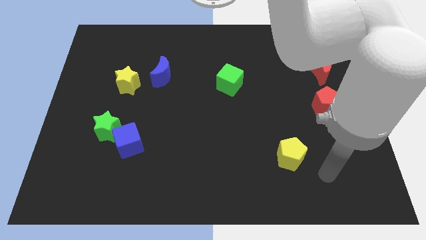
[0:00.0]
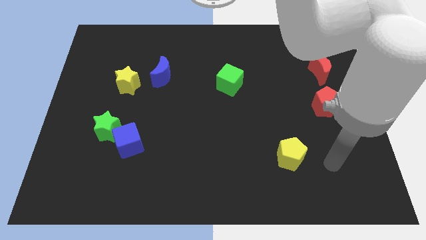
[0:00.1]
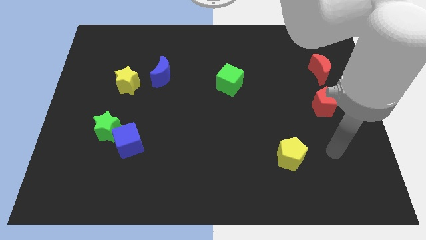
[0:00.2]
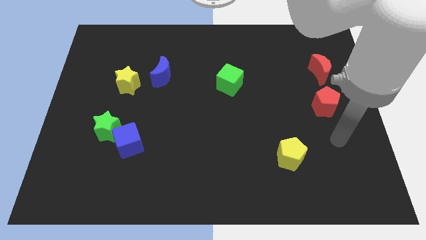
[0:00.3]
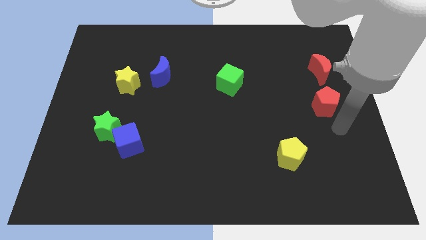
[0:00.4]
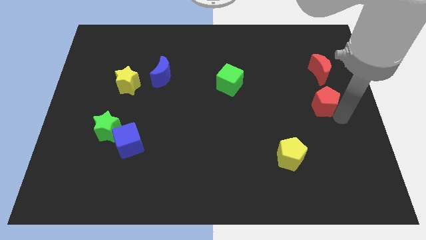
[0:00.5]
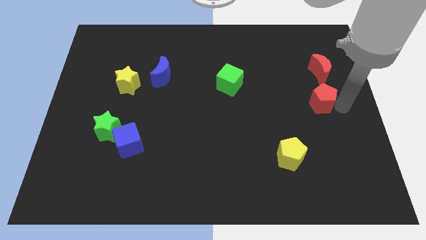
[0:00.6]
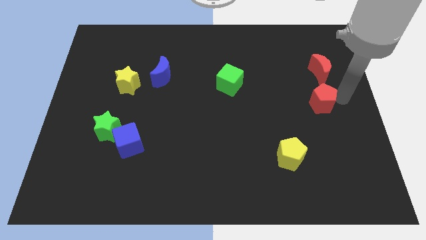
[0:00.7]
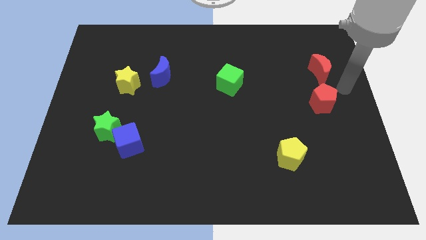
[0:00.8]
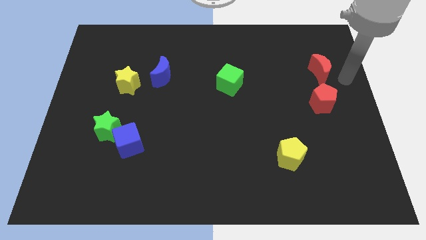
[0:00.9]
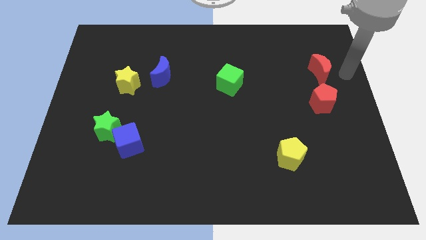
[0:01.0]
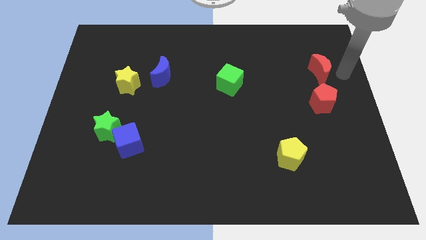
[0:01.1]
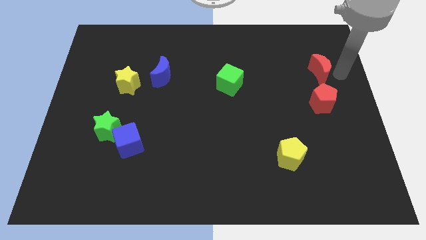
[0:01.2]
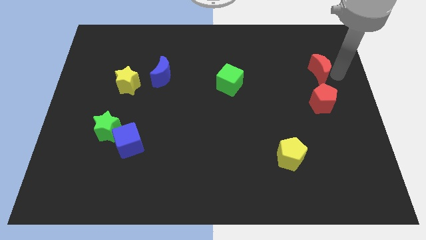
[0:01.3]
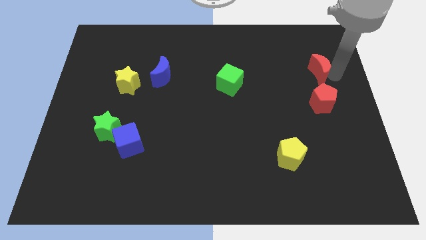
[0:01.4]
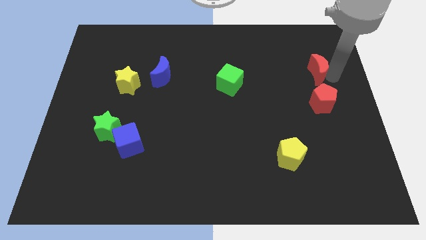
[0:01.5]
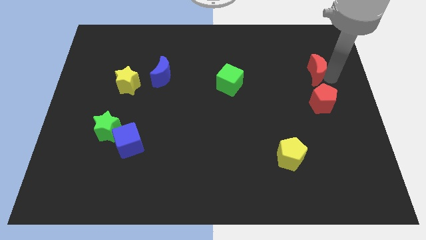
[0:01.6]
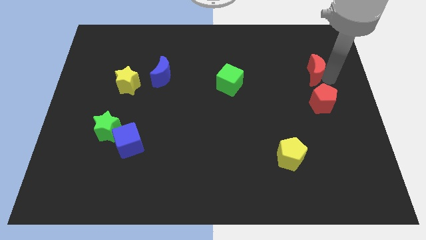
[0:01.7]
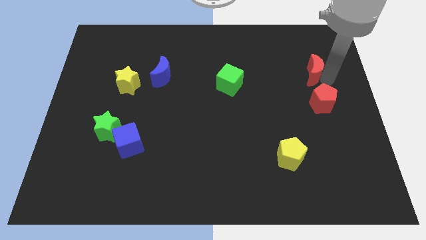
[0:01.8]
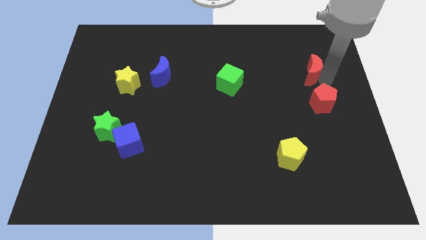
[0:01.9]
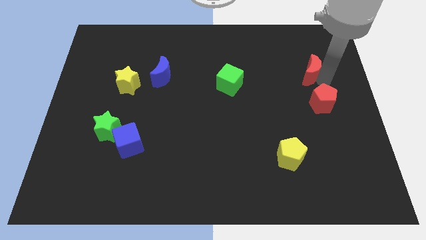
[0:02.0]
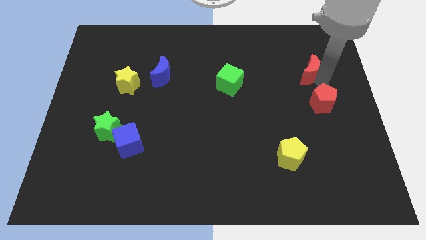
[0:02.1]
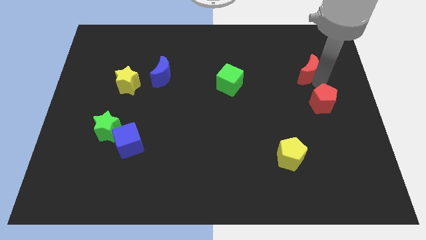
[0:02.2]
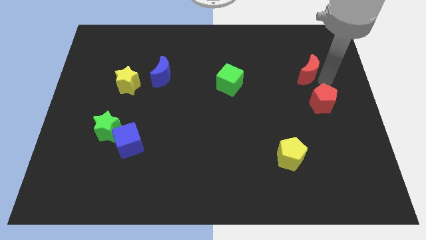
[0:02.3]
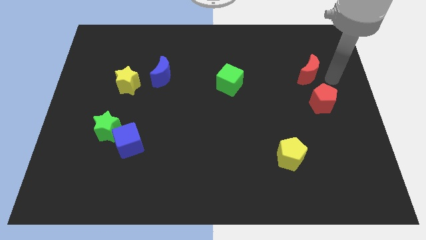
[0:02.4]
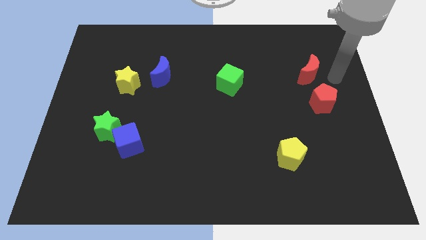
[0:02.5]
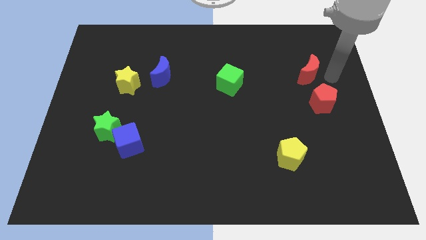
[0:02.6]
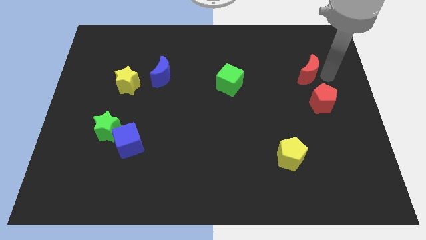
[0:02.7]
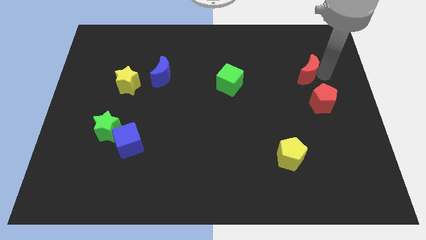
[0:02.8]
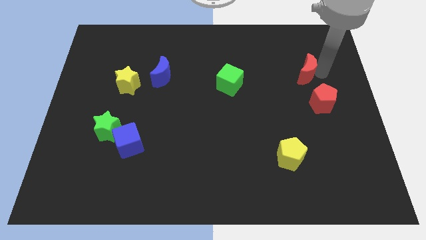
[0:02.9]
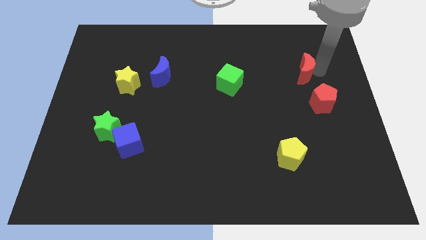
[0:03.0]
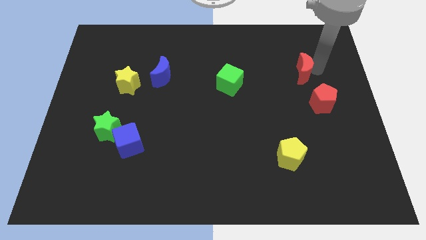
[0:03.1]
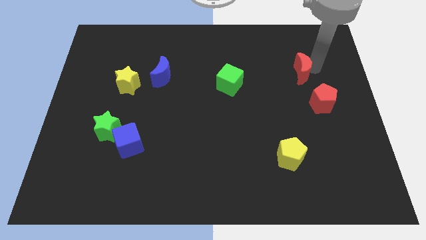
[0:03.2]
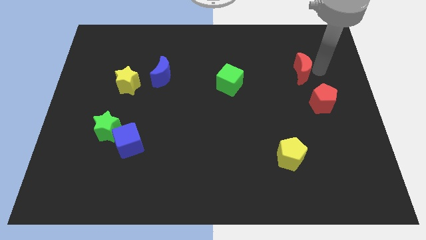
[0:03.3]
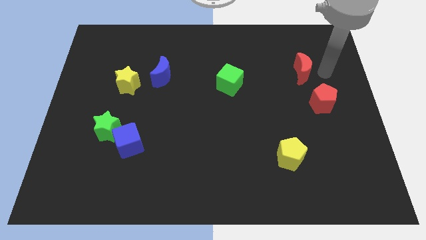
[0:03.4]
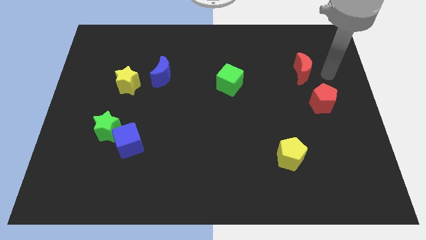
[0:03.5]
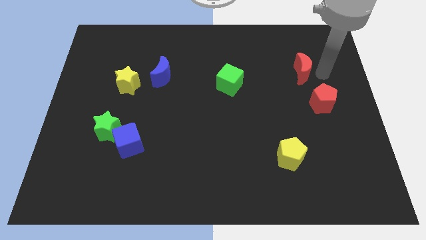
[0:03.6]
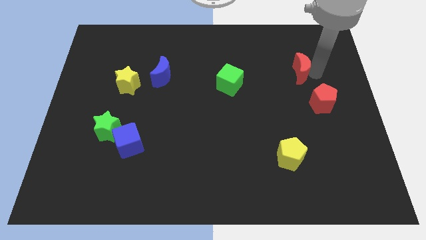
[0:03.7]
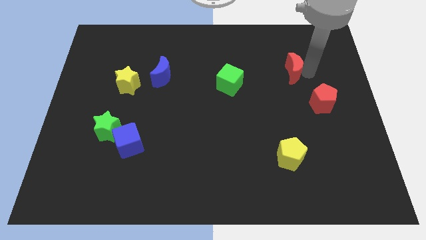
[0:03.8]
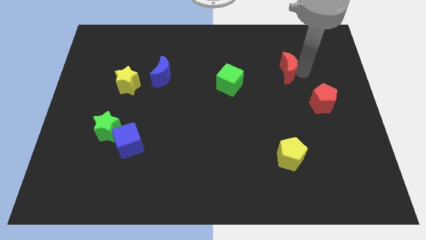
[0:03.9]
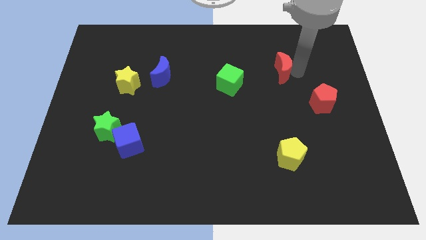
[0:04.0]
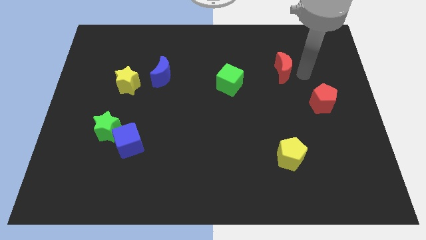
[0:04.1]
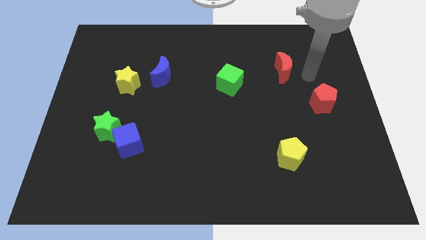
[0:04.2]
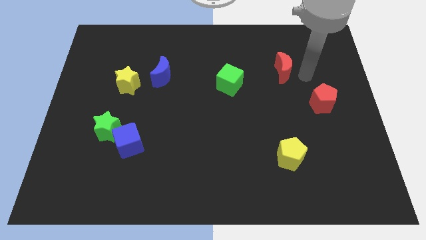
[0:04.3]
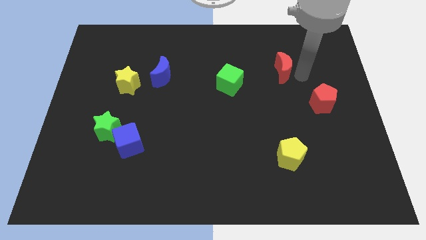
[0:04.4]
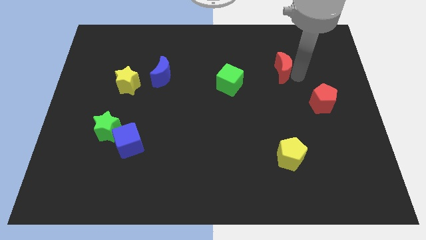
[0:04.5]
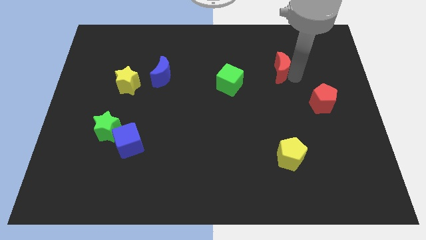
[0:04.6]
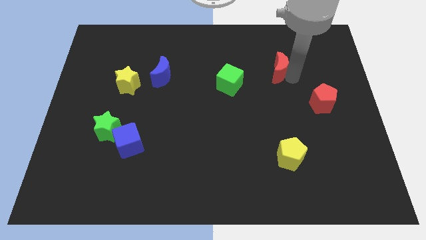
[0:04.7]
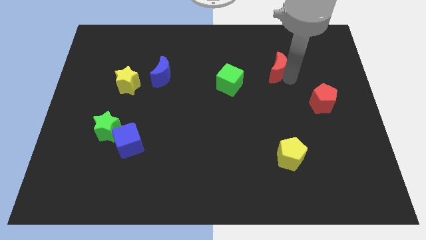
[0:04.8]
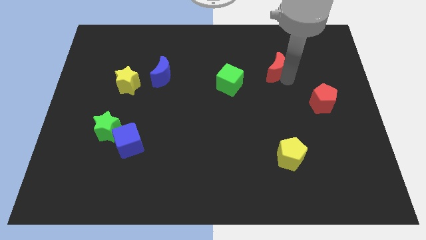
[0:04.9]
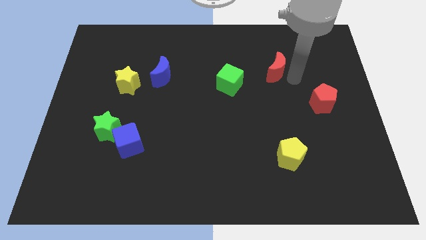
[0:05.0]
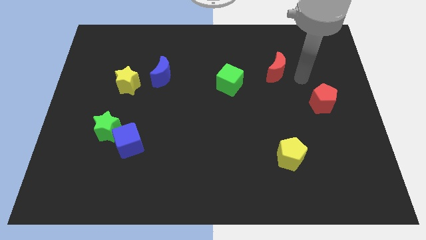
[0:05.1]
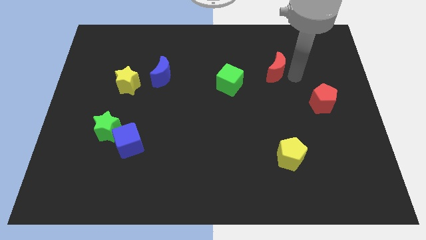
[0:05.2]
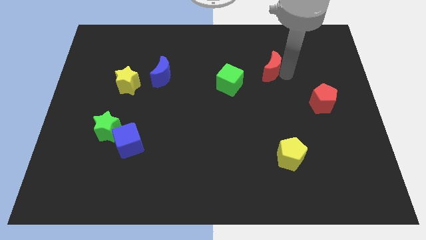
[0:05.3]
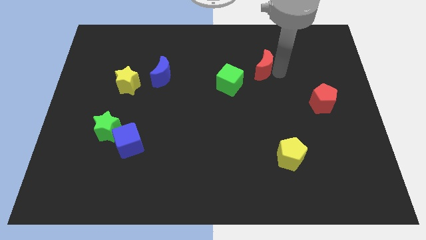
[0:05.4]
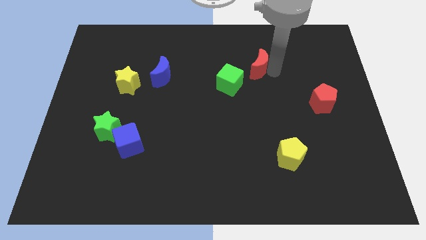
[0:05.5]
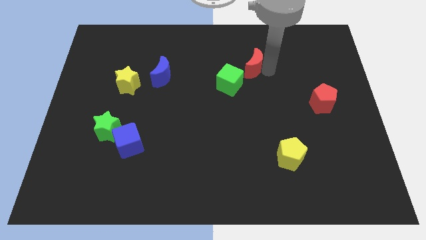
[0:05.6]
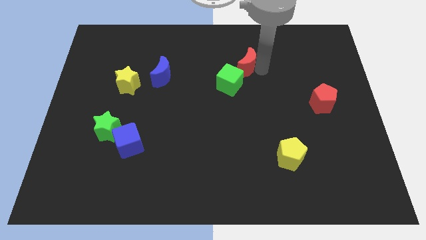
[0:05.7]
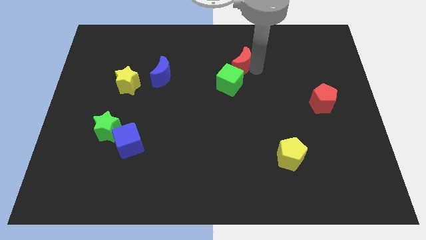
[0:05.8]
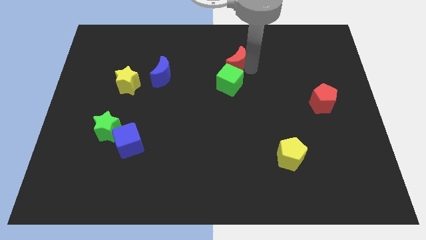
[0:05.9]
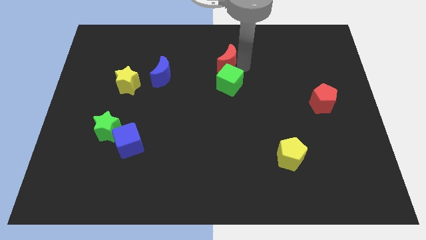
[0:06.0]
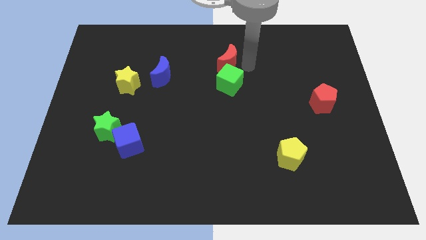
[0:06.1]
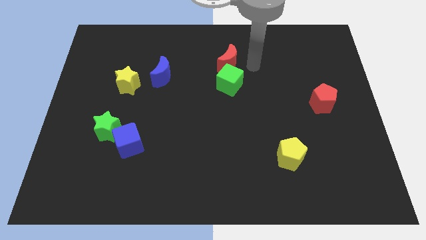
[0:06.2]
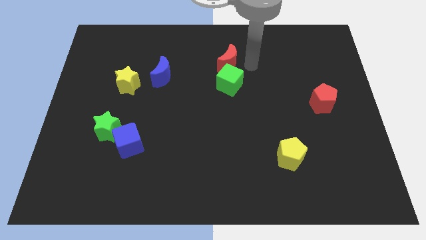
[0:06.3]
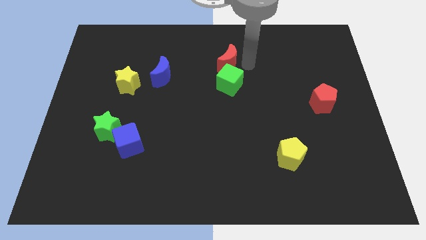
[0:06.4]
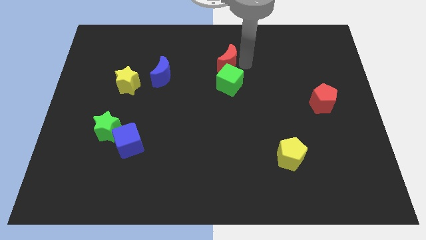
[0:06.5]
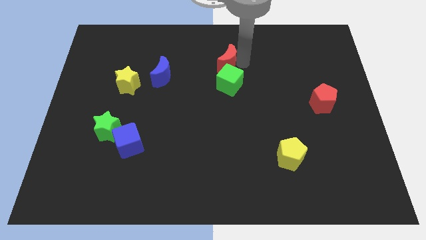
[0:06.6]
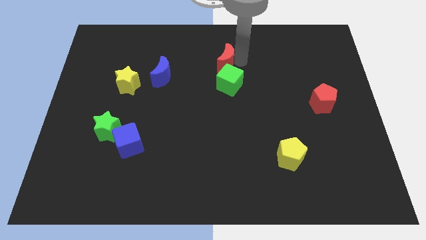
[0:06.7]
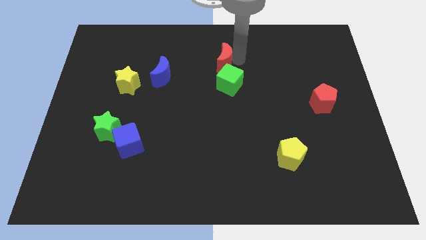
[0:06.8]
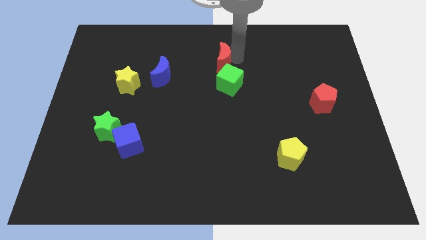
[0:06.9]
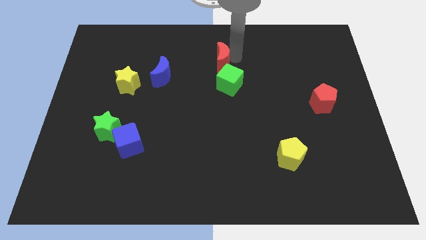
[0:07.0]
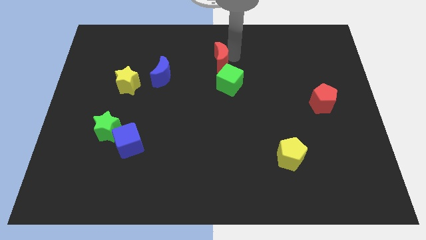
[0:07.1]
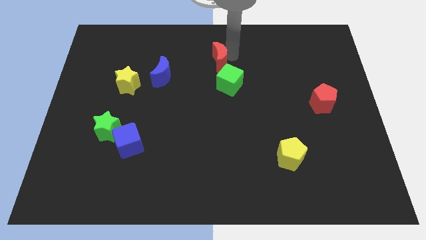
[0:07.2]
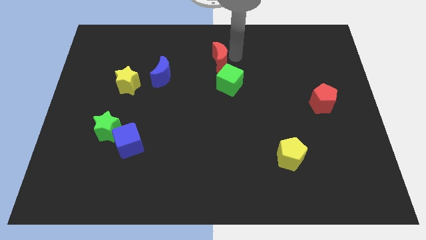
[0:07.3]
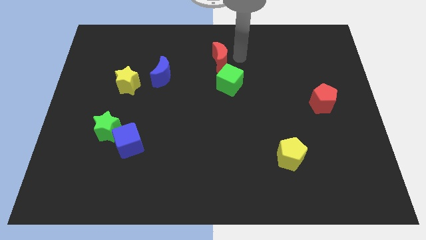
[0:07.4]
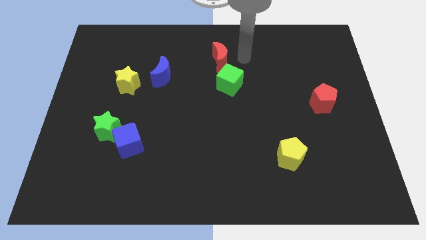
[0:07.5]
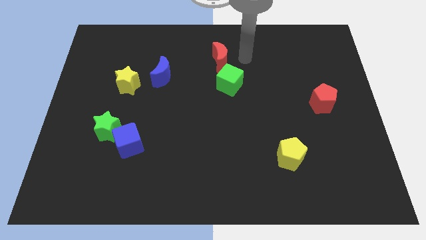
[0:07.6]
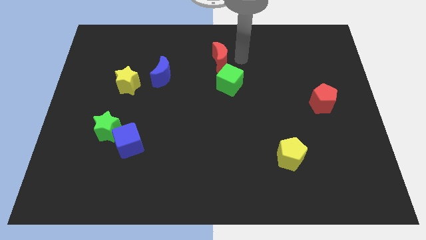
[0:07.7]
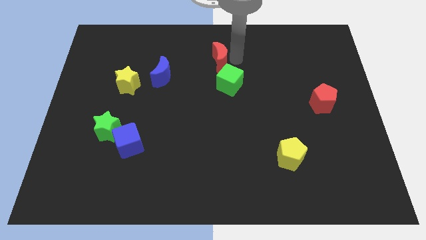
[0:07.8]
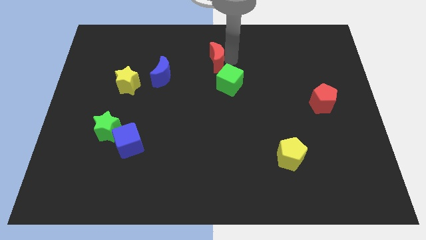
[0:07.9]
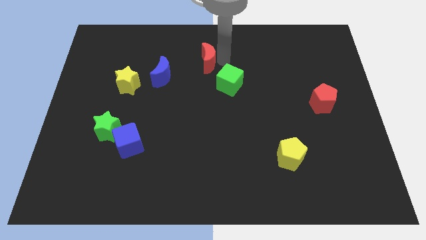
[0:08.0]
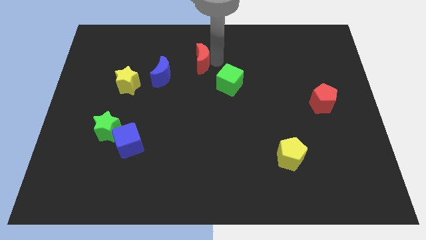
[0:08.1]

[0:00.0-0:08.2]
slide the red moon to the top right of the blue moon

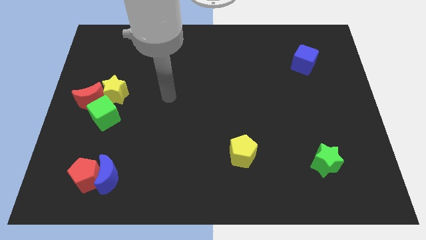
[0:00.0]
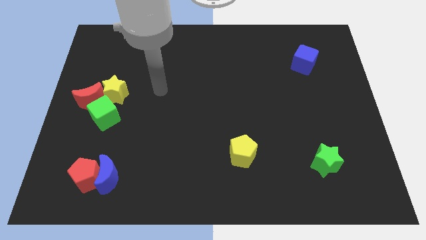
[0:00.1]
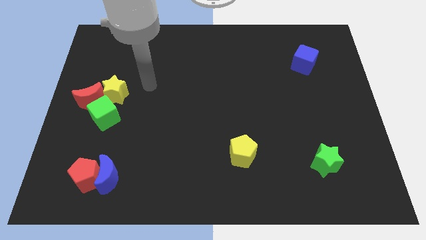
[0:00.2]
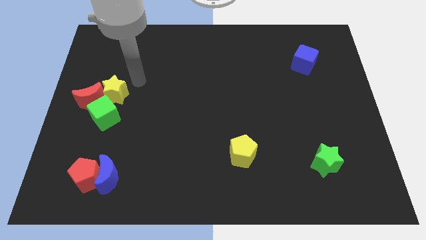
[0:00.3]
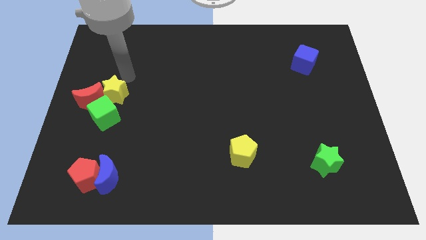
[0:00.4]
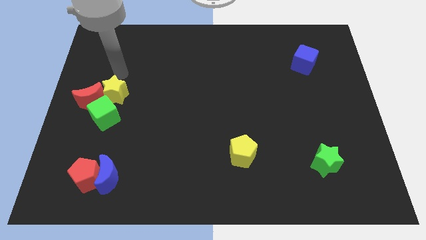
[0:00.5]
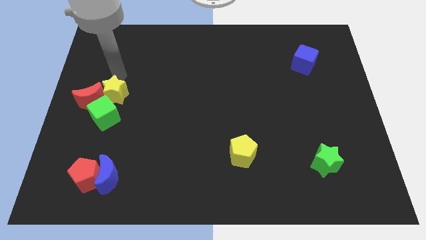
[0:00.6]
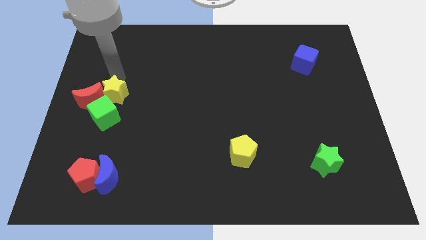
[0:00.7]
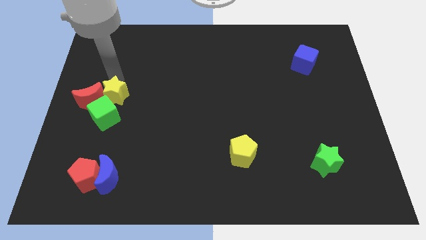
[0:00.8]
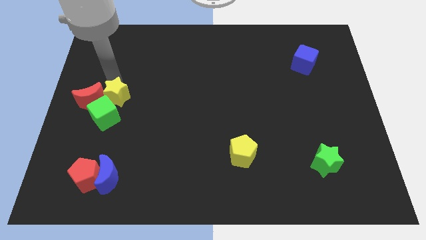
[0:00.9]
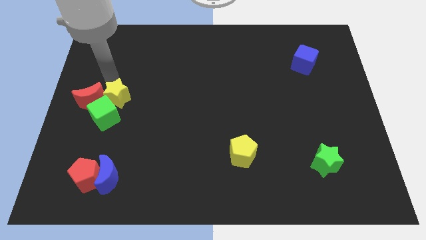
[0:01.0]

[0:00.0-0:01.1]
slide the yellow star diagonally down and to the right of the red moon
